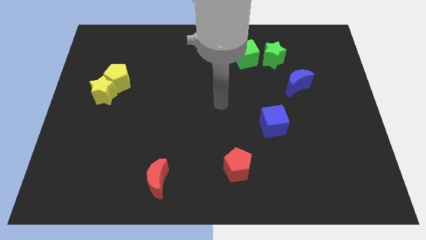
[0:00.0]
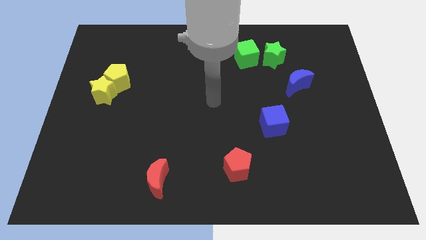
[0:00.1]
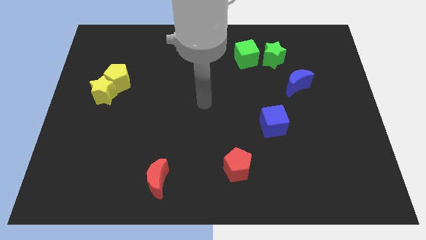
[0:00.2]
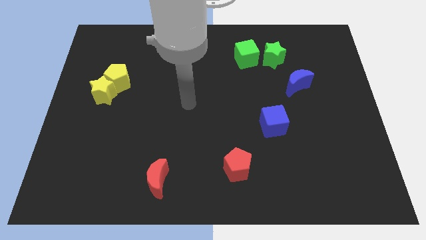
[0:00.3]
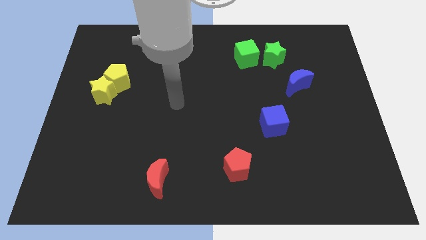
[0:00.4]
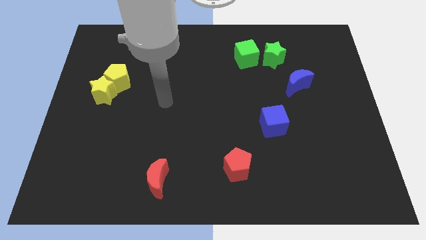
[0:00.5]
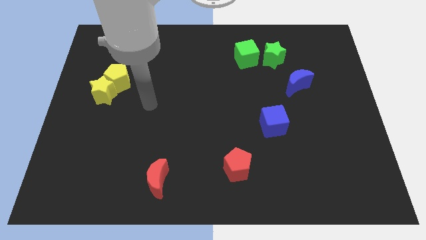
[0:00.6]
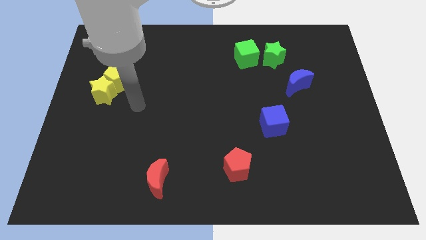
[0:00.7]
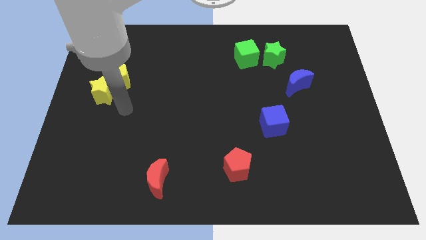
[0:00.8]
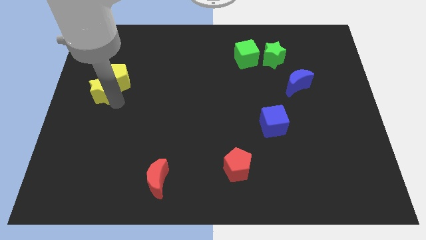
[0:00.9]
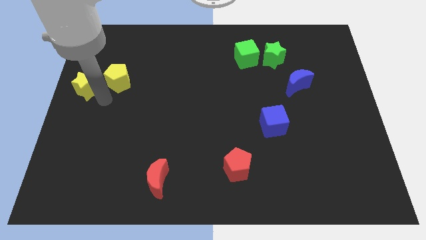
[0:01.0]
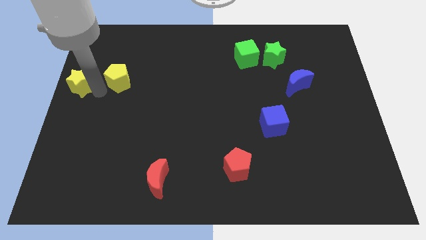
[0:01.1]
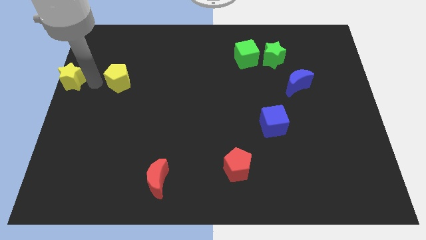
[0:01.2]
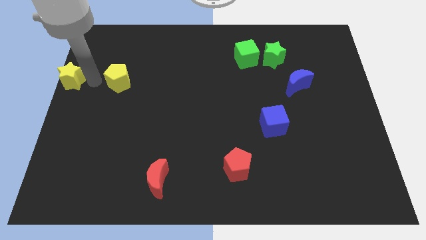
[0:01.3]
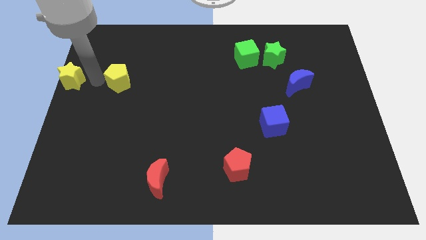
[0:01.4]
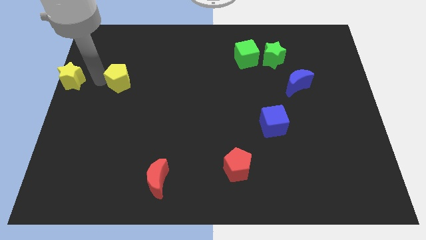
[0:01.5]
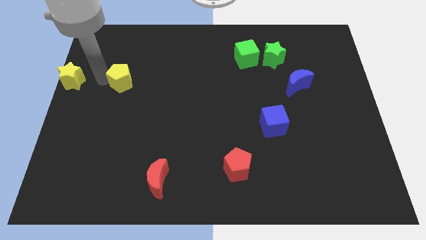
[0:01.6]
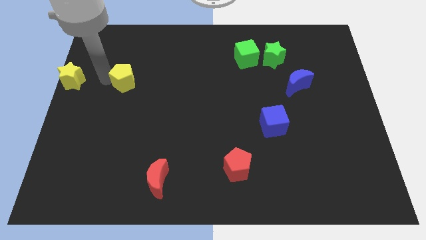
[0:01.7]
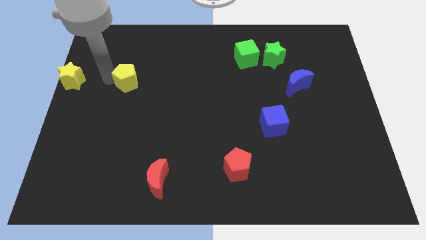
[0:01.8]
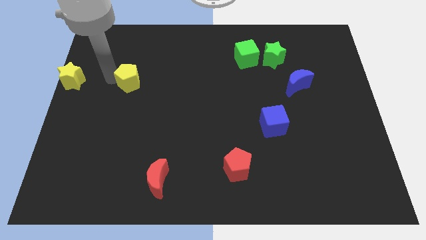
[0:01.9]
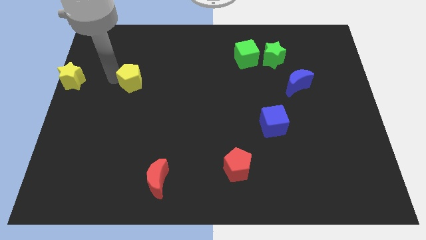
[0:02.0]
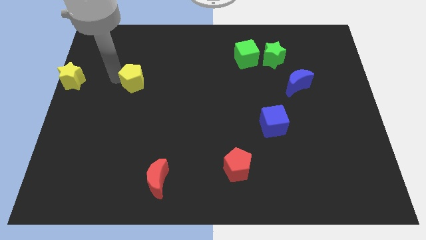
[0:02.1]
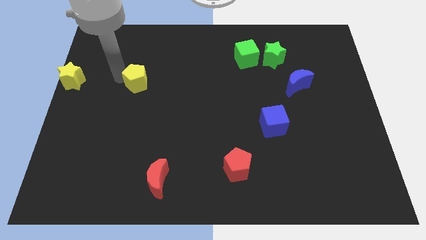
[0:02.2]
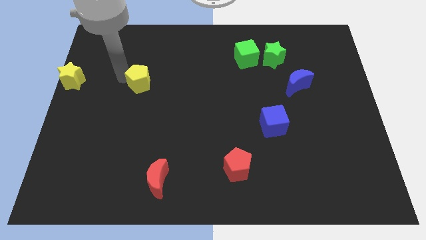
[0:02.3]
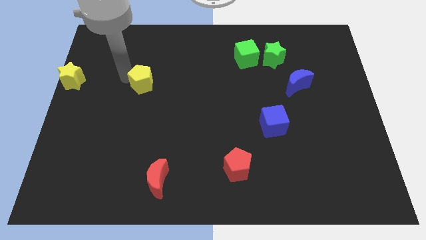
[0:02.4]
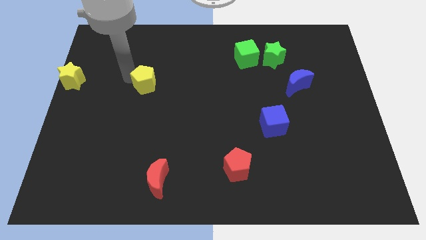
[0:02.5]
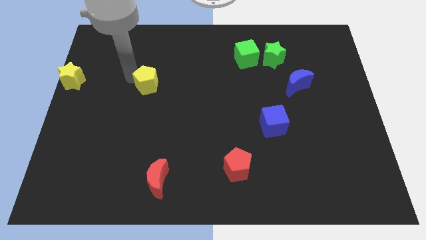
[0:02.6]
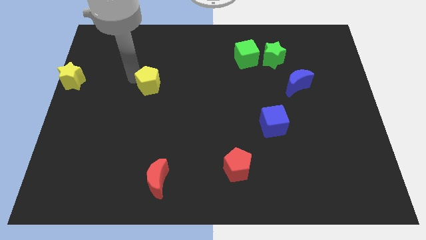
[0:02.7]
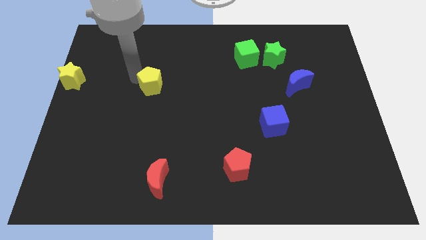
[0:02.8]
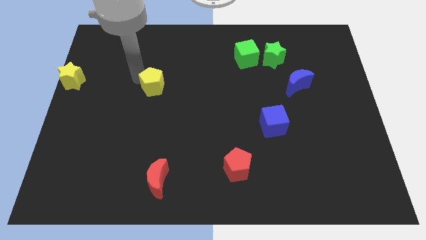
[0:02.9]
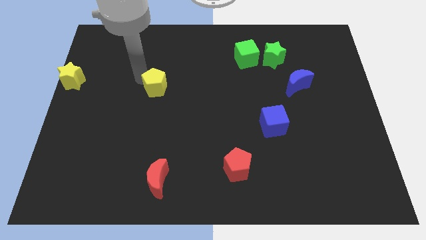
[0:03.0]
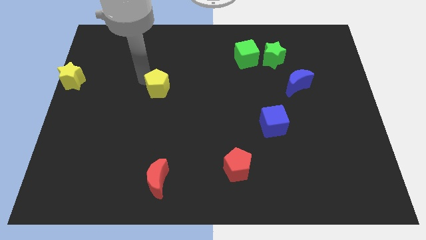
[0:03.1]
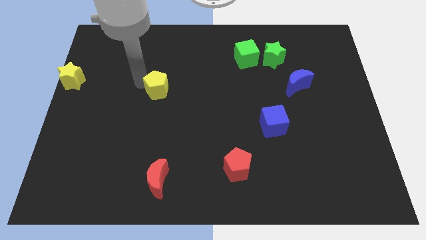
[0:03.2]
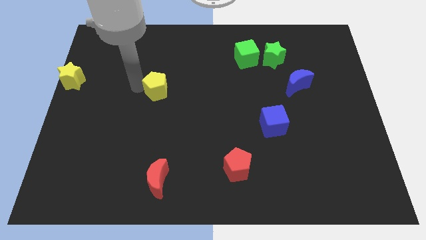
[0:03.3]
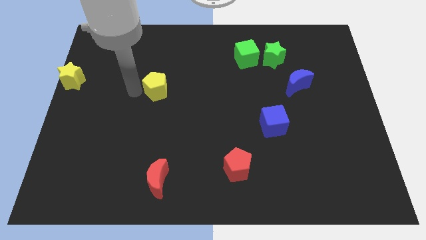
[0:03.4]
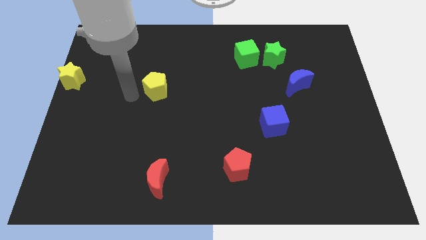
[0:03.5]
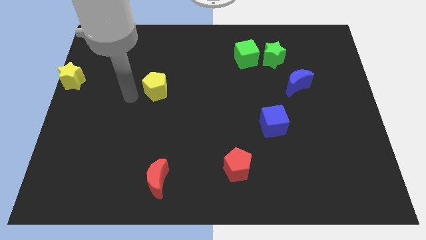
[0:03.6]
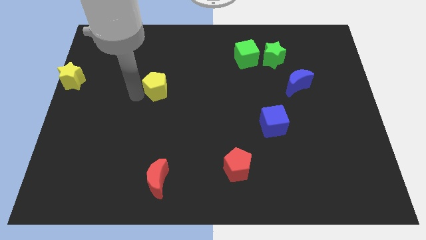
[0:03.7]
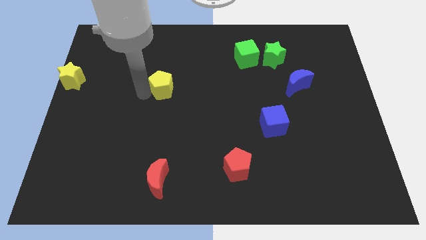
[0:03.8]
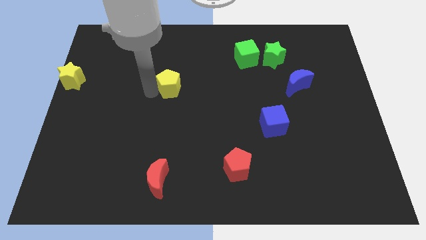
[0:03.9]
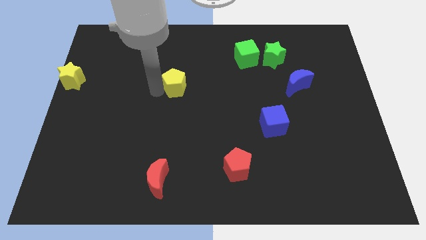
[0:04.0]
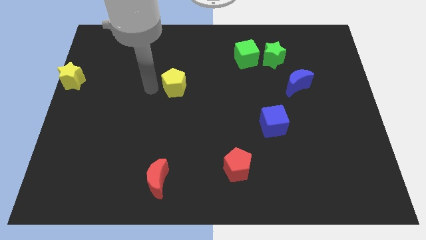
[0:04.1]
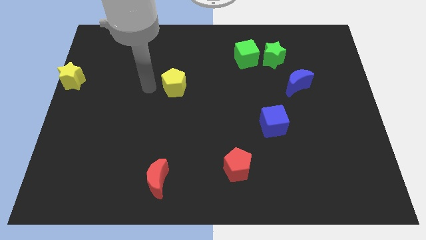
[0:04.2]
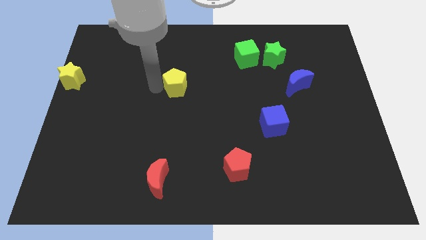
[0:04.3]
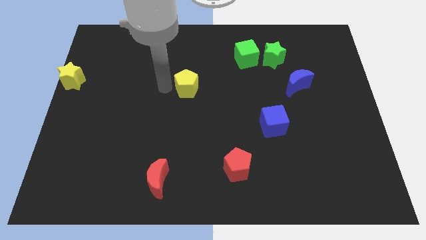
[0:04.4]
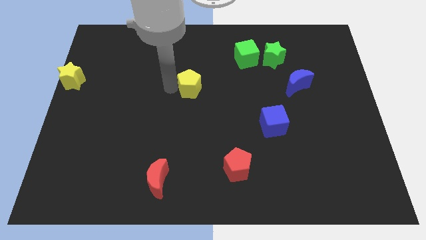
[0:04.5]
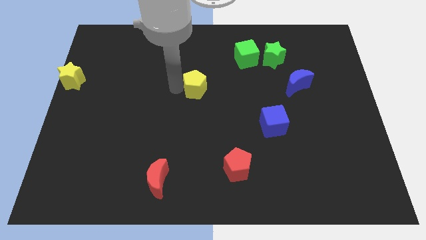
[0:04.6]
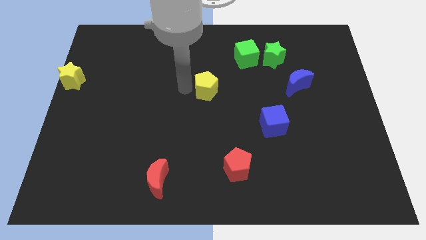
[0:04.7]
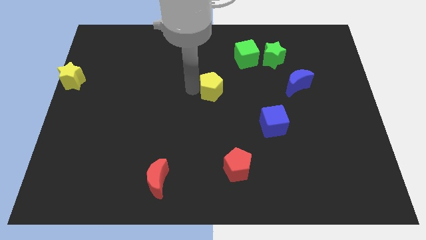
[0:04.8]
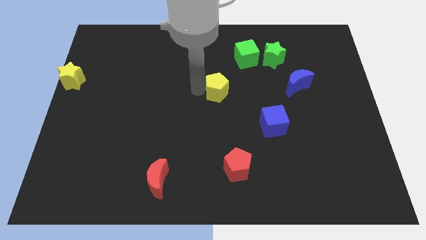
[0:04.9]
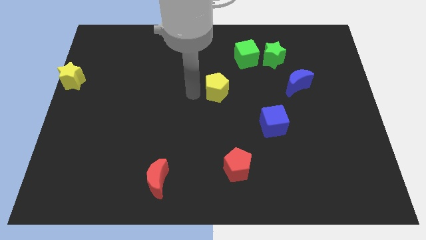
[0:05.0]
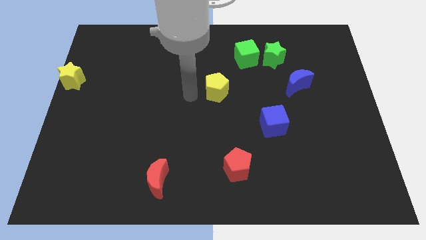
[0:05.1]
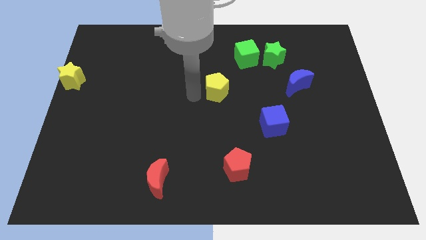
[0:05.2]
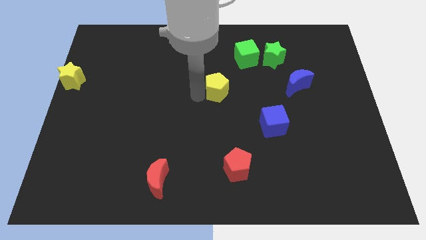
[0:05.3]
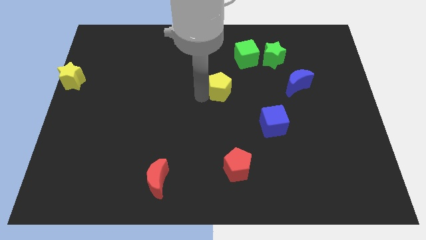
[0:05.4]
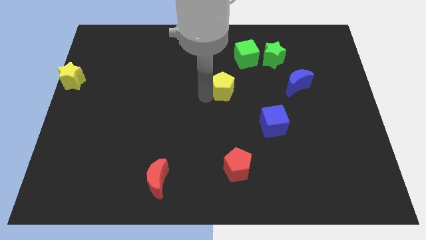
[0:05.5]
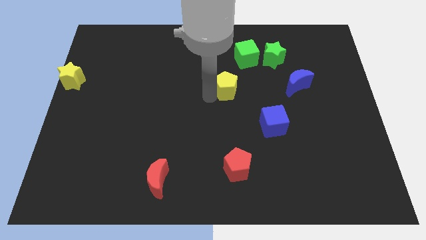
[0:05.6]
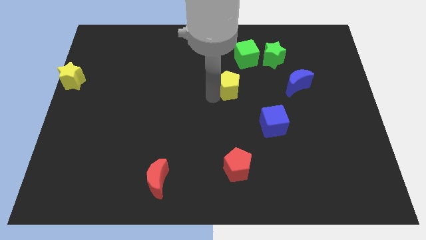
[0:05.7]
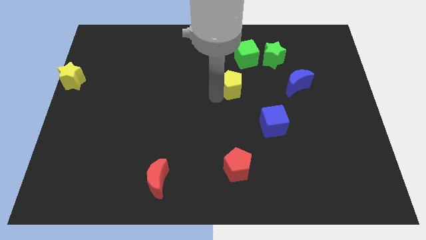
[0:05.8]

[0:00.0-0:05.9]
put the yellow pentagon left of the blue moon

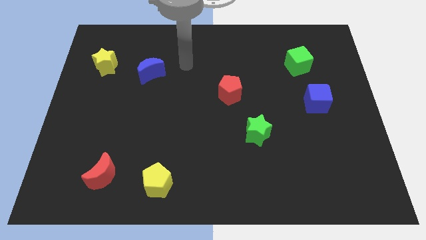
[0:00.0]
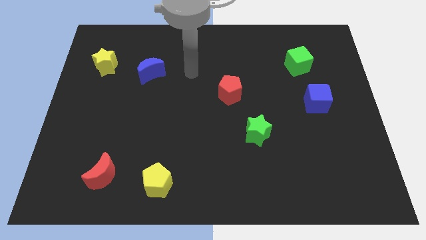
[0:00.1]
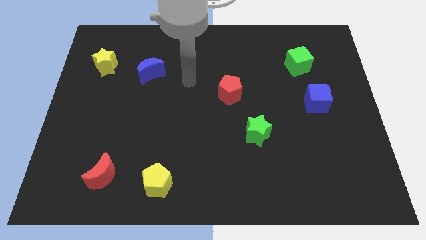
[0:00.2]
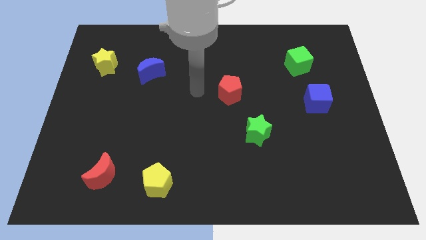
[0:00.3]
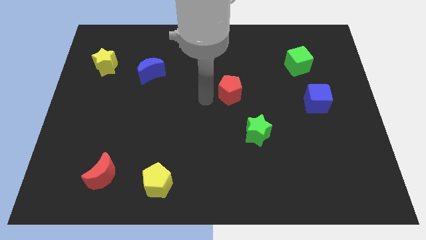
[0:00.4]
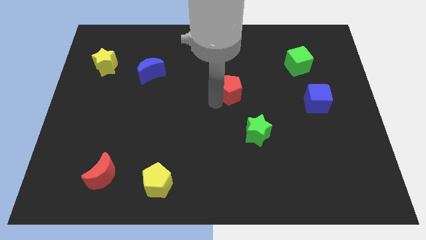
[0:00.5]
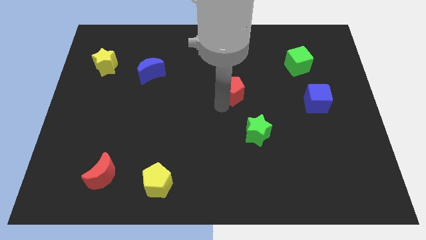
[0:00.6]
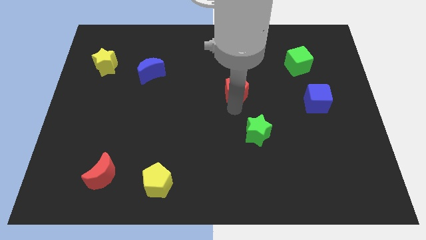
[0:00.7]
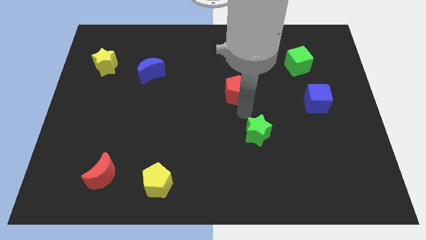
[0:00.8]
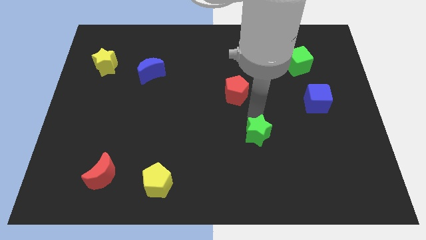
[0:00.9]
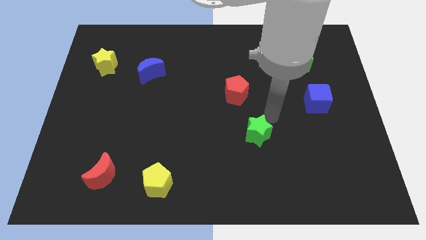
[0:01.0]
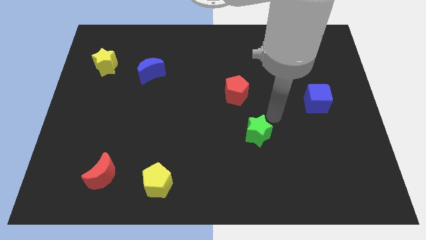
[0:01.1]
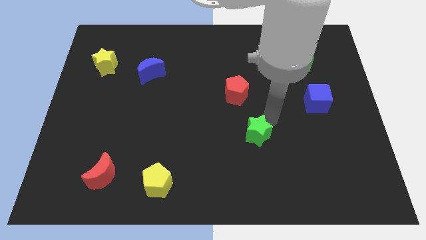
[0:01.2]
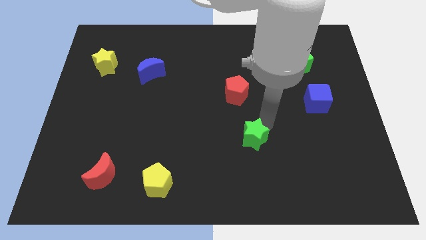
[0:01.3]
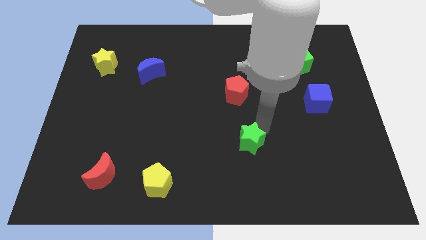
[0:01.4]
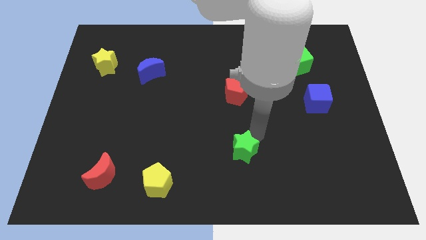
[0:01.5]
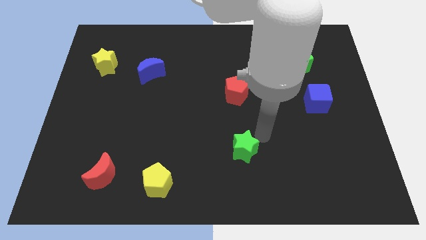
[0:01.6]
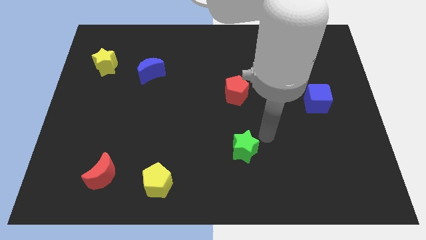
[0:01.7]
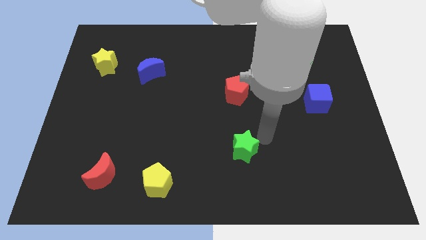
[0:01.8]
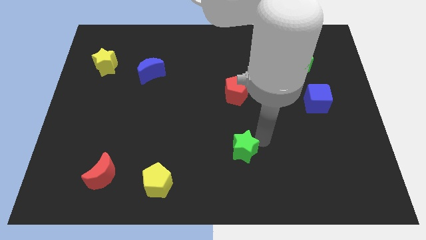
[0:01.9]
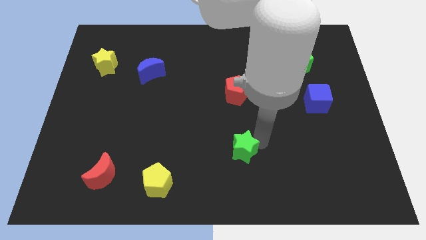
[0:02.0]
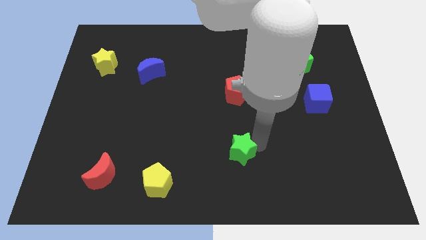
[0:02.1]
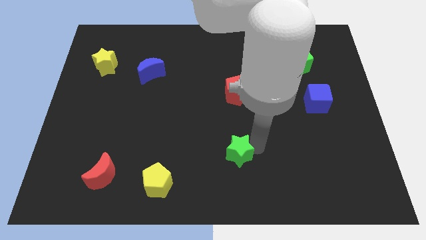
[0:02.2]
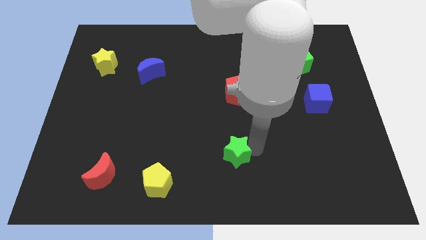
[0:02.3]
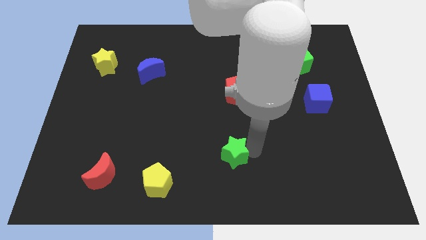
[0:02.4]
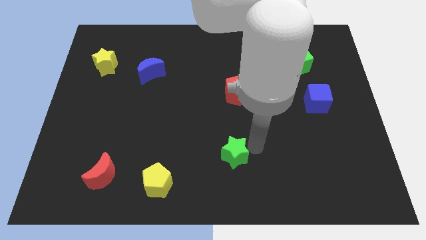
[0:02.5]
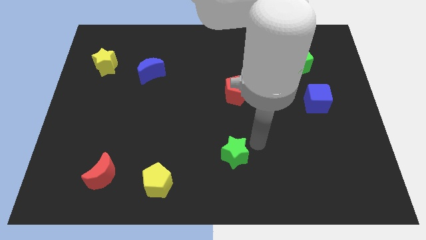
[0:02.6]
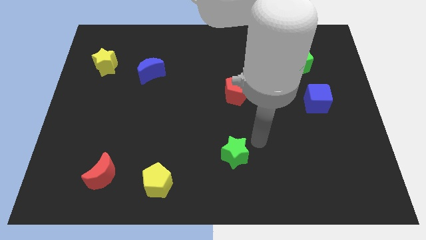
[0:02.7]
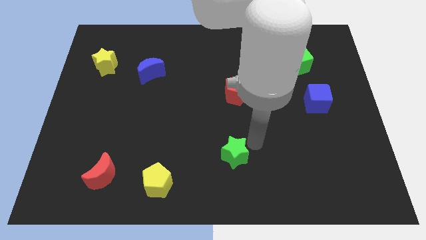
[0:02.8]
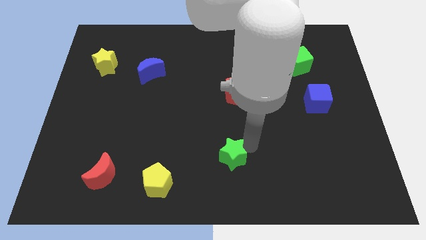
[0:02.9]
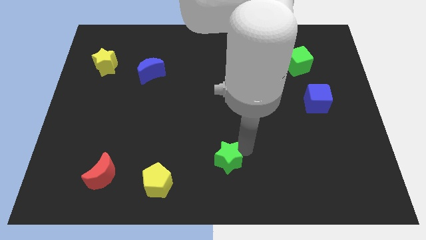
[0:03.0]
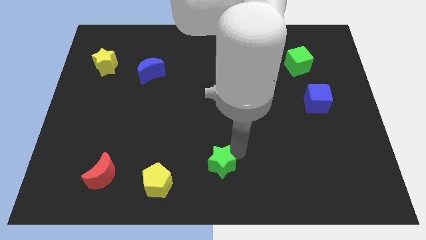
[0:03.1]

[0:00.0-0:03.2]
move the green star to the right of the yellow pentagon
